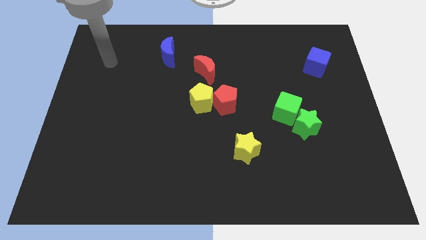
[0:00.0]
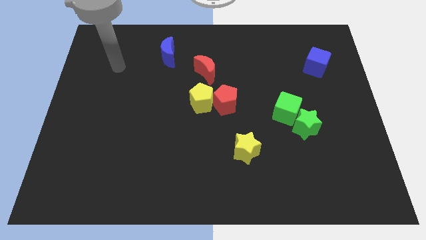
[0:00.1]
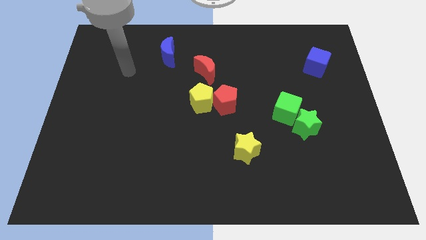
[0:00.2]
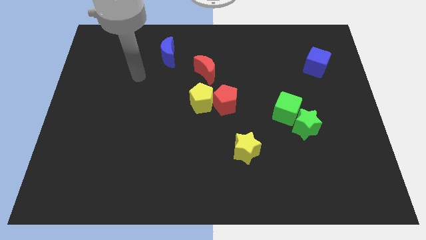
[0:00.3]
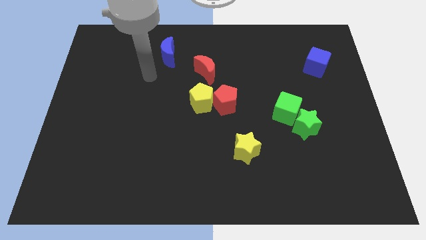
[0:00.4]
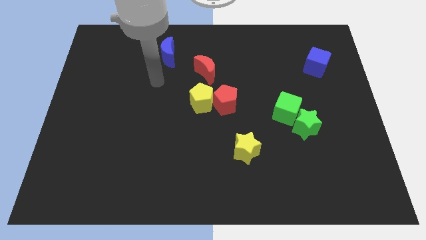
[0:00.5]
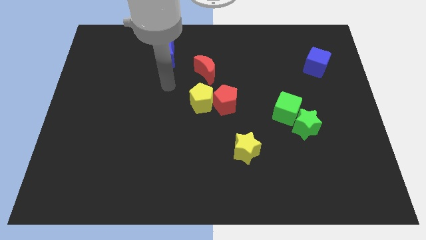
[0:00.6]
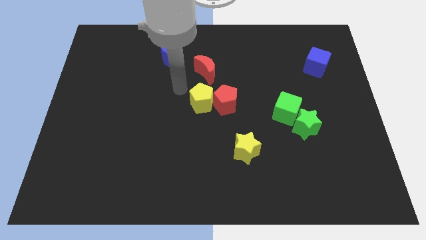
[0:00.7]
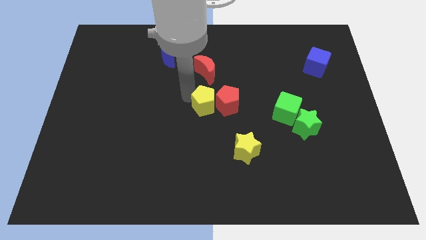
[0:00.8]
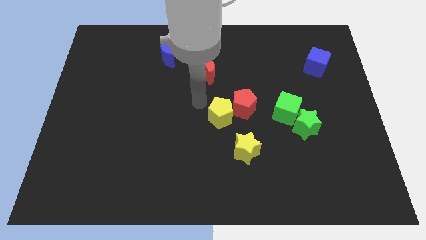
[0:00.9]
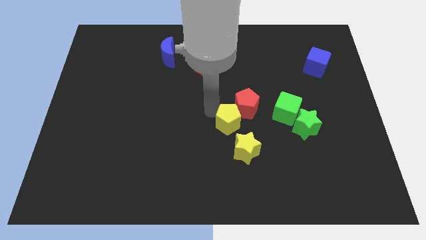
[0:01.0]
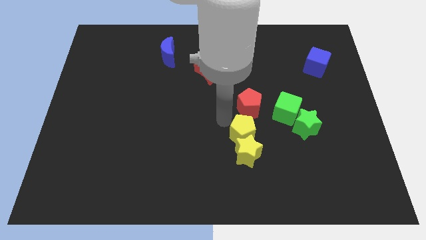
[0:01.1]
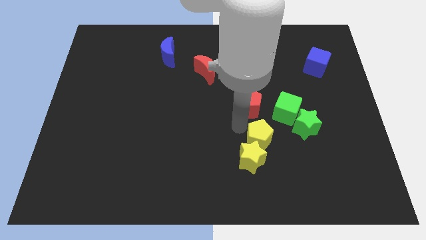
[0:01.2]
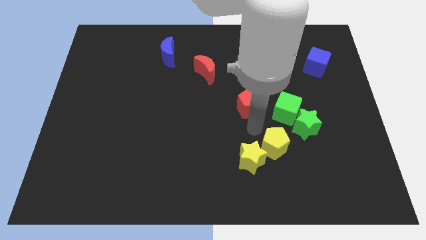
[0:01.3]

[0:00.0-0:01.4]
pull the red pentagon apart from the yellow pentagon

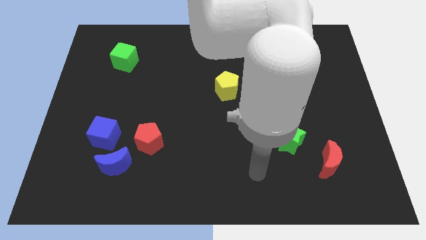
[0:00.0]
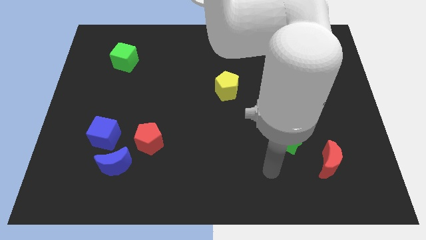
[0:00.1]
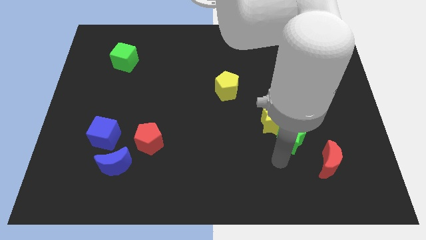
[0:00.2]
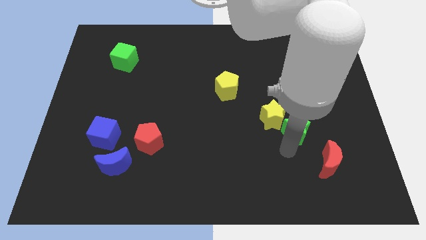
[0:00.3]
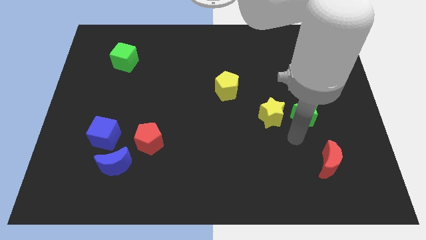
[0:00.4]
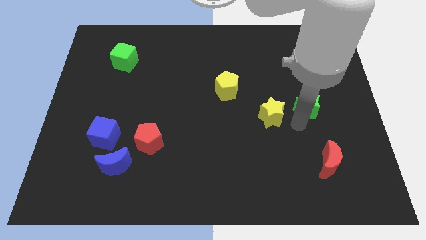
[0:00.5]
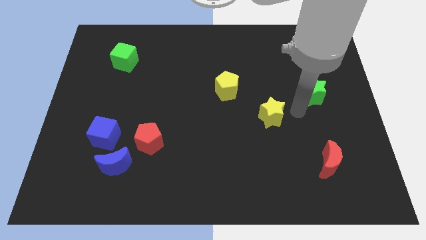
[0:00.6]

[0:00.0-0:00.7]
pull the yellow star apart from the green star

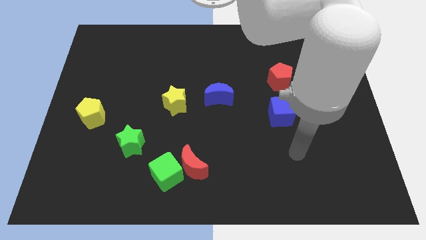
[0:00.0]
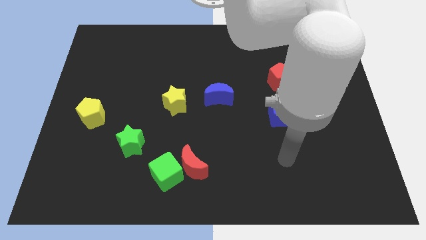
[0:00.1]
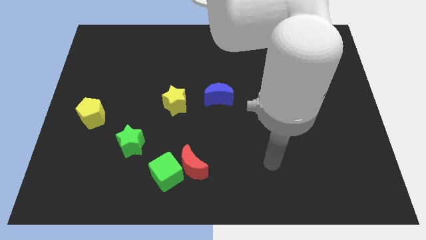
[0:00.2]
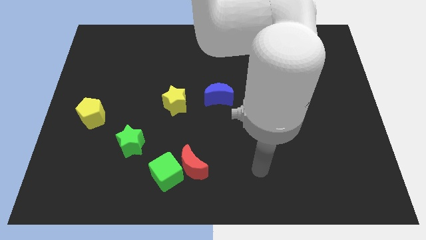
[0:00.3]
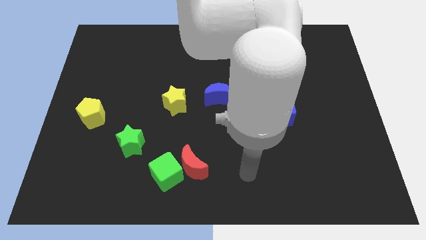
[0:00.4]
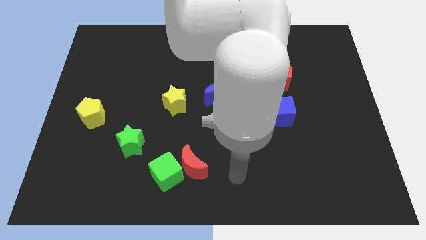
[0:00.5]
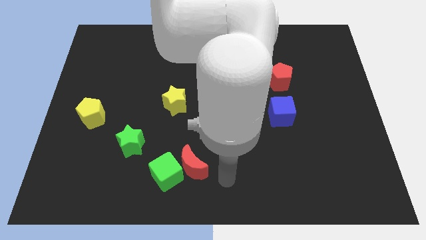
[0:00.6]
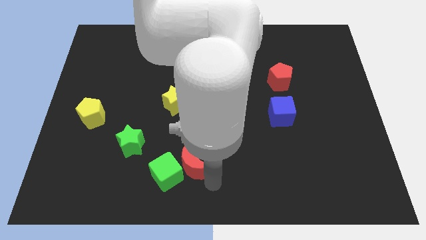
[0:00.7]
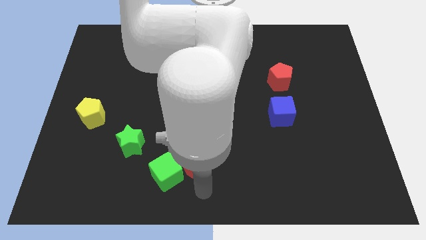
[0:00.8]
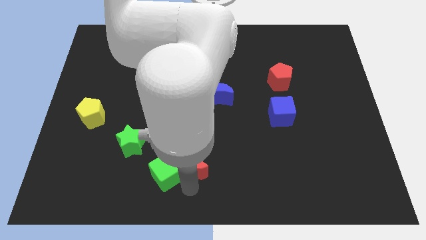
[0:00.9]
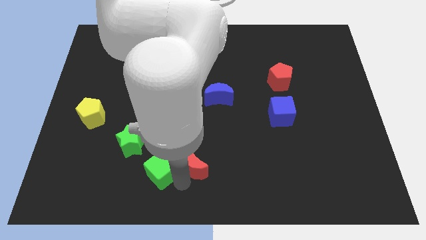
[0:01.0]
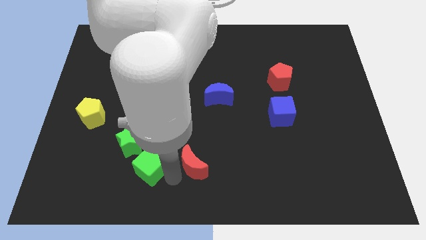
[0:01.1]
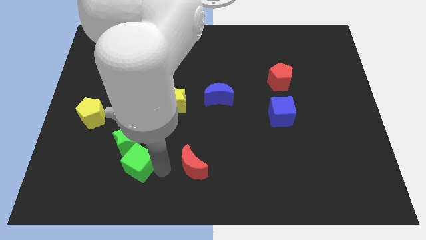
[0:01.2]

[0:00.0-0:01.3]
move the red moon away from the green cube

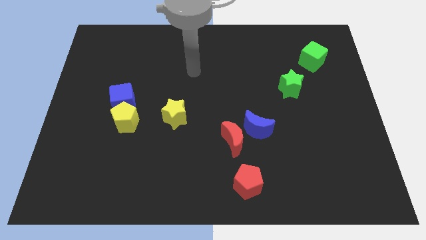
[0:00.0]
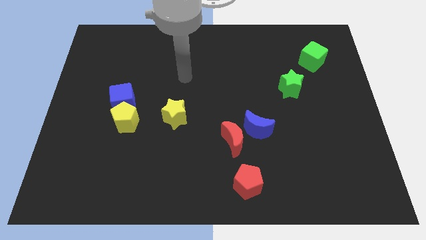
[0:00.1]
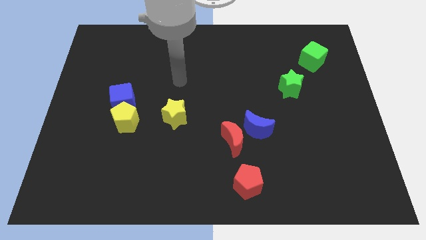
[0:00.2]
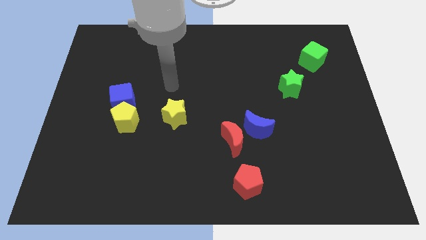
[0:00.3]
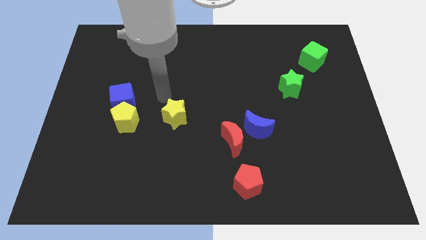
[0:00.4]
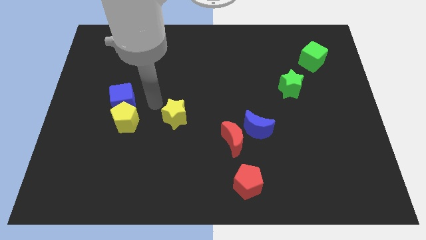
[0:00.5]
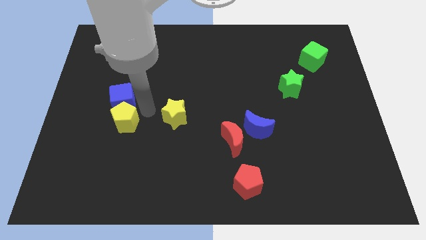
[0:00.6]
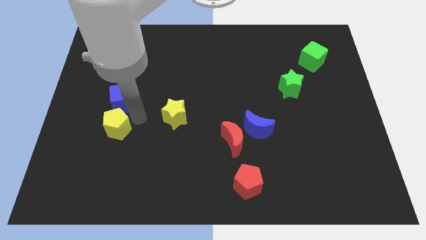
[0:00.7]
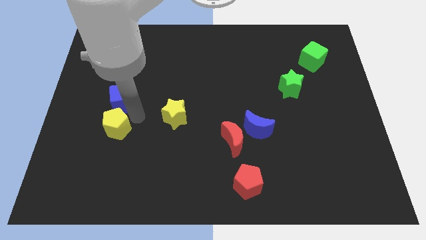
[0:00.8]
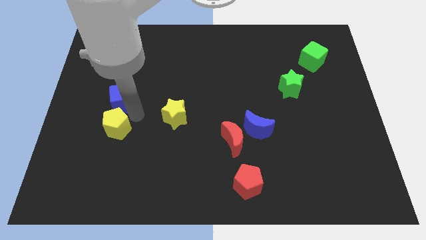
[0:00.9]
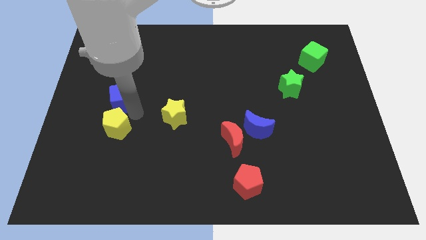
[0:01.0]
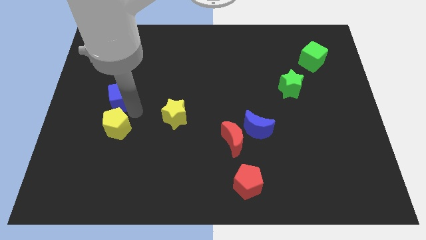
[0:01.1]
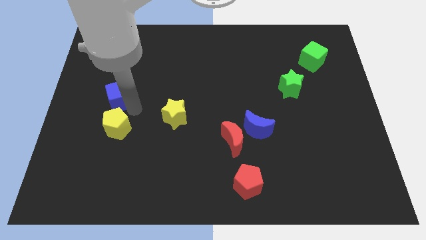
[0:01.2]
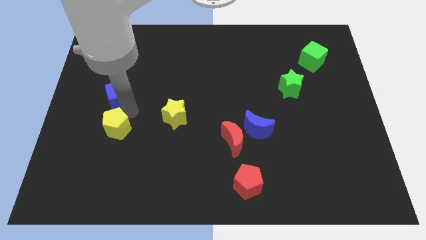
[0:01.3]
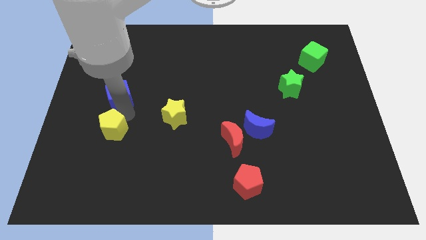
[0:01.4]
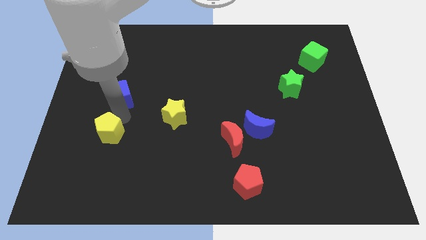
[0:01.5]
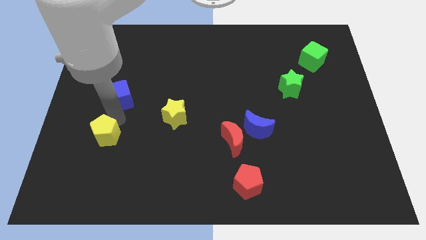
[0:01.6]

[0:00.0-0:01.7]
separate the blue cube from the yellow pentagon

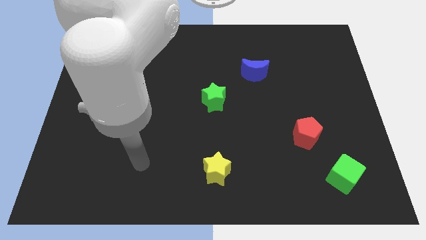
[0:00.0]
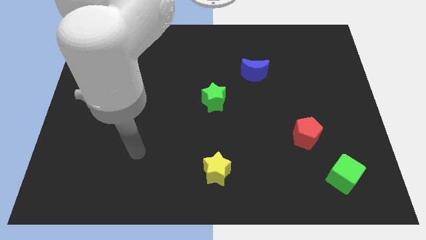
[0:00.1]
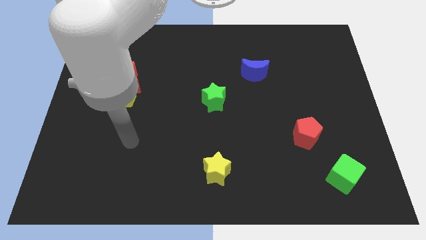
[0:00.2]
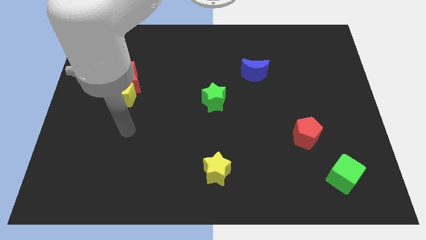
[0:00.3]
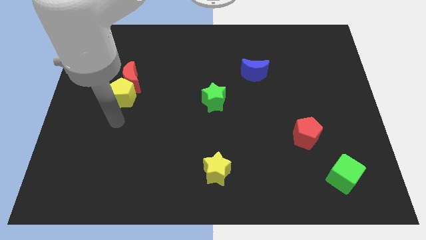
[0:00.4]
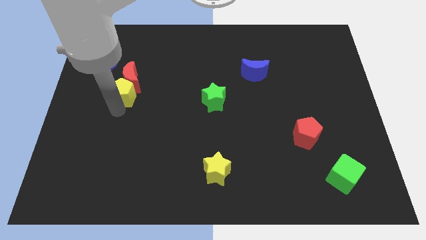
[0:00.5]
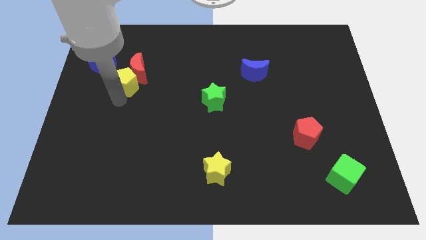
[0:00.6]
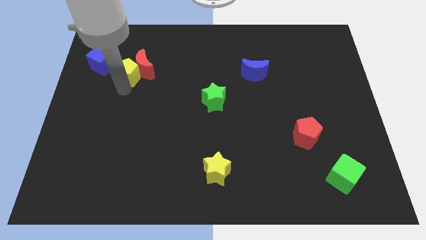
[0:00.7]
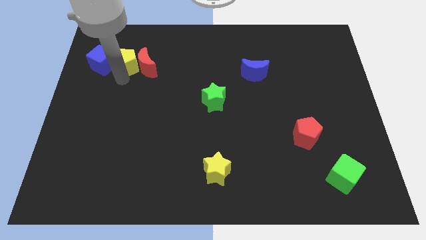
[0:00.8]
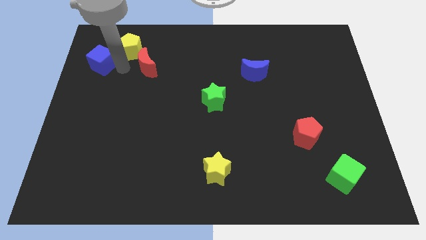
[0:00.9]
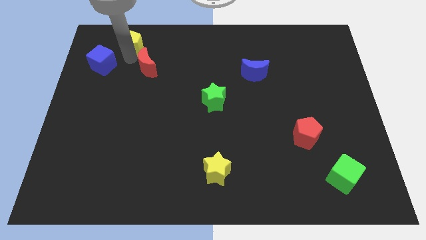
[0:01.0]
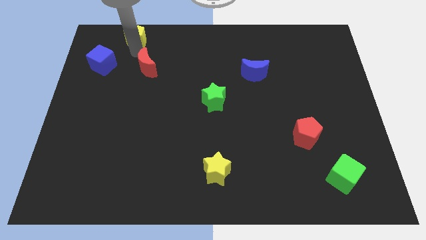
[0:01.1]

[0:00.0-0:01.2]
pull the red moon apart from the yellow pentagon

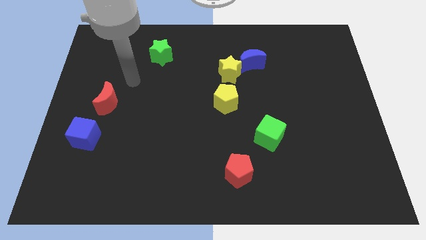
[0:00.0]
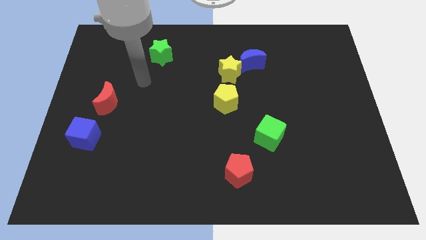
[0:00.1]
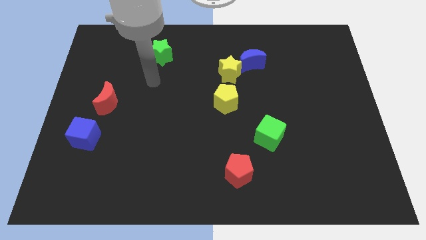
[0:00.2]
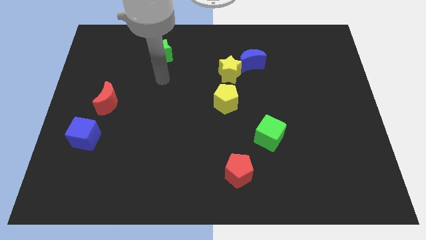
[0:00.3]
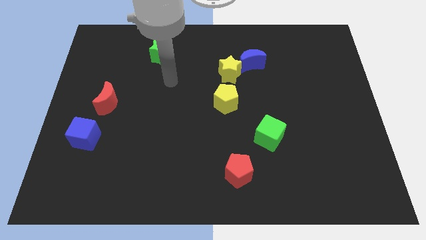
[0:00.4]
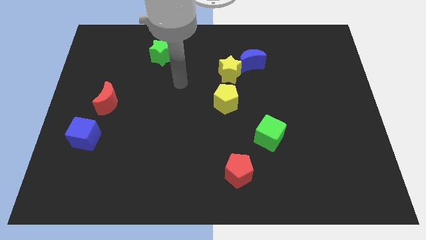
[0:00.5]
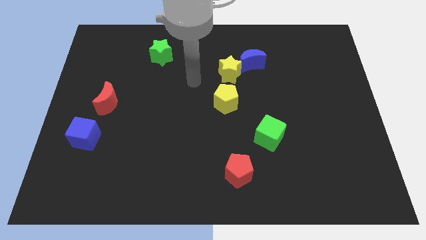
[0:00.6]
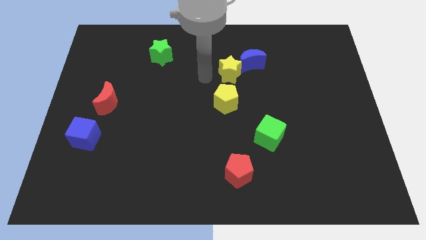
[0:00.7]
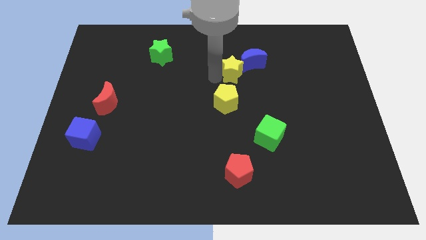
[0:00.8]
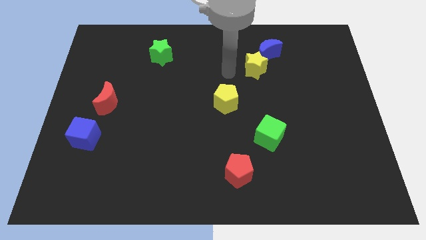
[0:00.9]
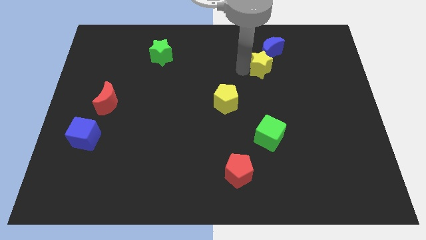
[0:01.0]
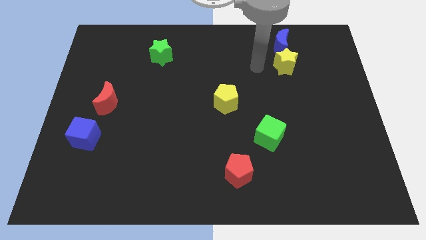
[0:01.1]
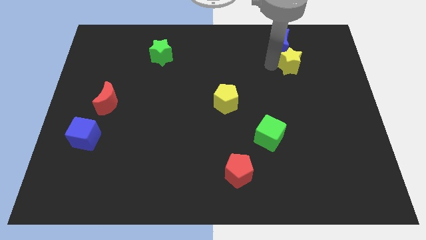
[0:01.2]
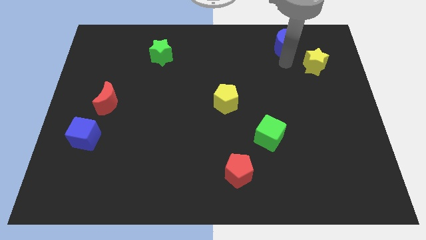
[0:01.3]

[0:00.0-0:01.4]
separate the blue moon from the yellow star

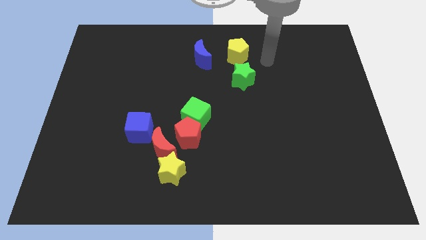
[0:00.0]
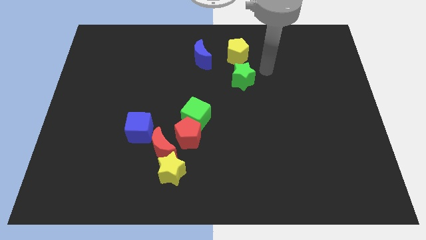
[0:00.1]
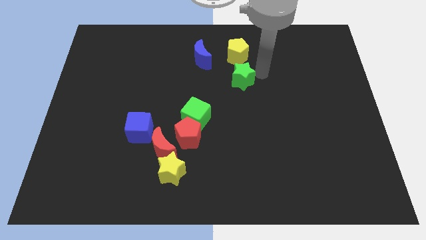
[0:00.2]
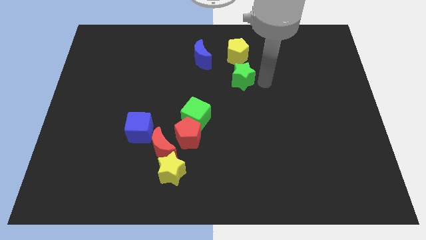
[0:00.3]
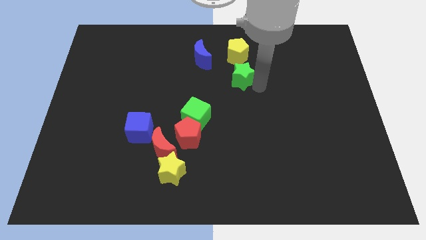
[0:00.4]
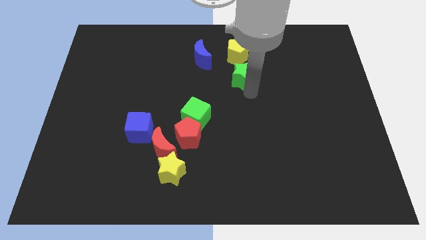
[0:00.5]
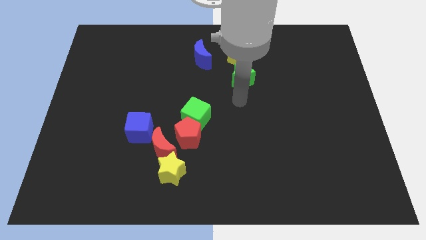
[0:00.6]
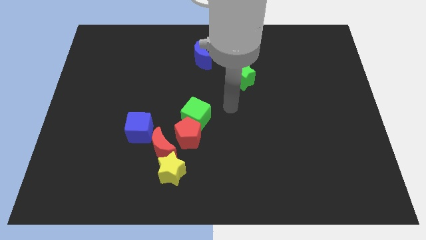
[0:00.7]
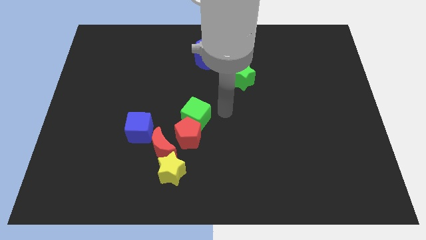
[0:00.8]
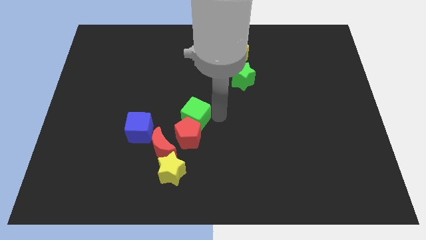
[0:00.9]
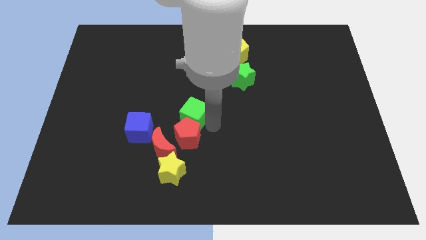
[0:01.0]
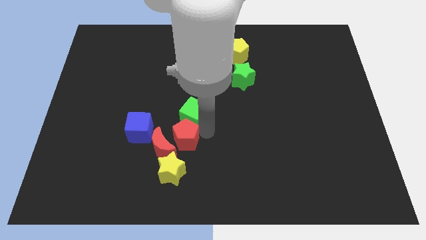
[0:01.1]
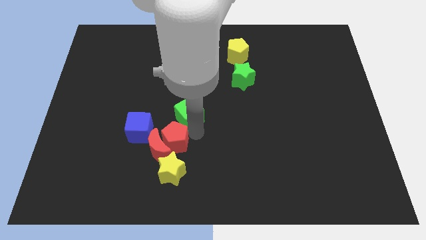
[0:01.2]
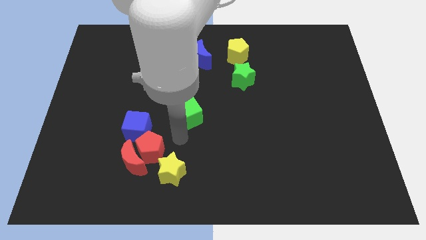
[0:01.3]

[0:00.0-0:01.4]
separate the green cube from the red pentagon

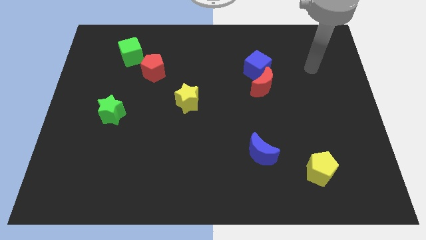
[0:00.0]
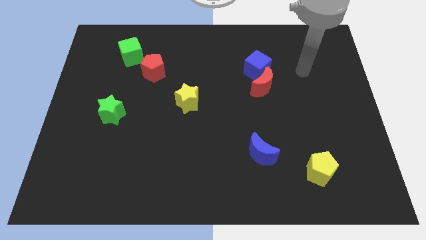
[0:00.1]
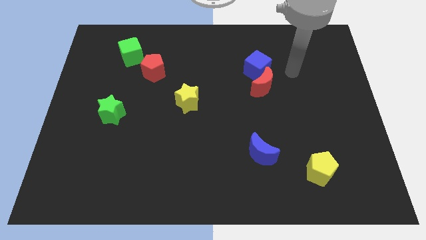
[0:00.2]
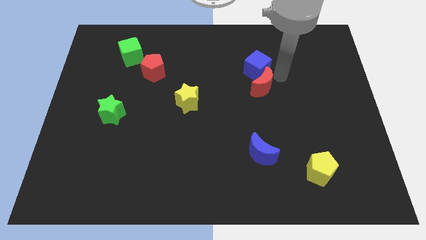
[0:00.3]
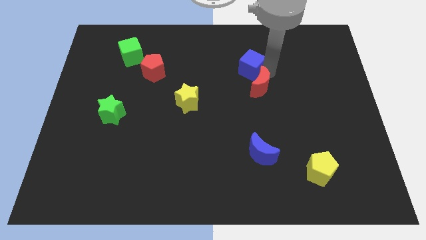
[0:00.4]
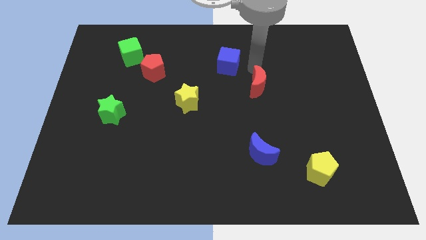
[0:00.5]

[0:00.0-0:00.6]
separate the red moon from the blue cube
